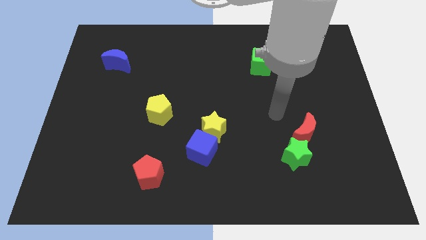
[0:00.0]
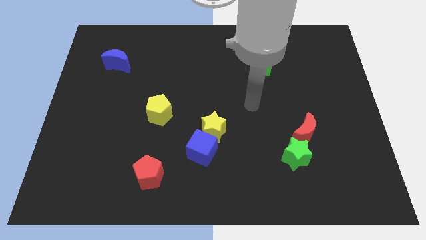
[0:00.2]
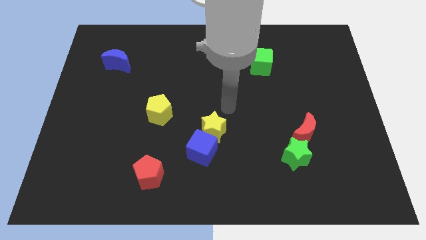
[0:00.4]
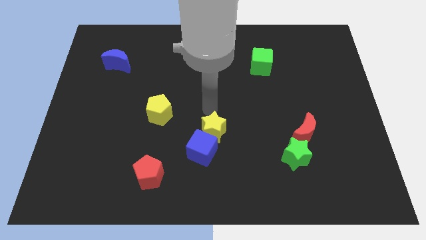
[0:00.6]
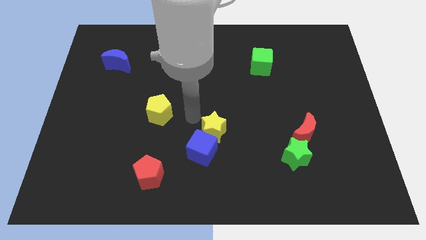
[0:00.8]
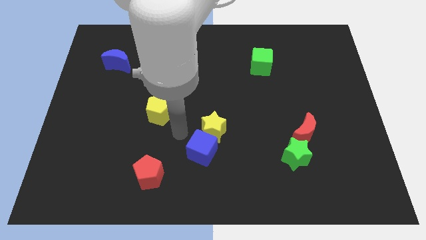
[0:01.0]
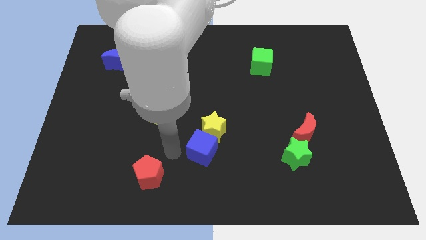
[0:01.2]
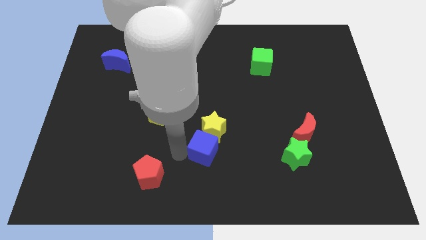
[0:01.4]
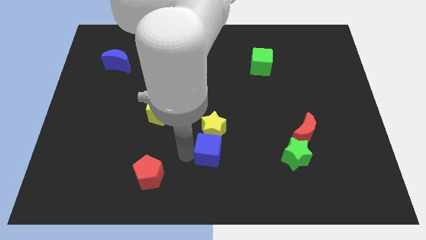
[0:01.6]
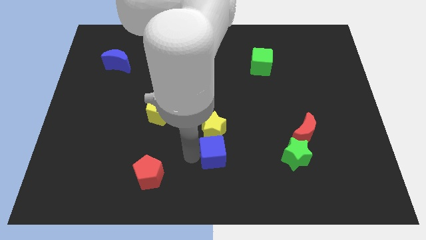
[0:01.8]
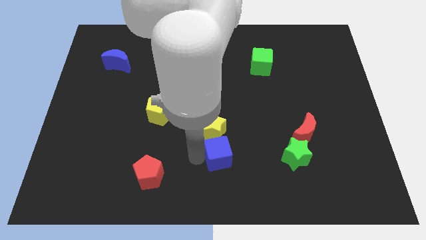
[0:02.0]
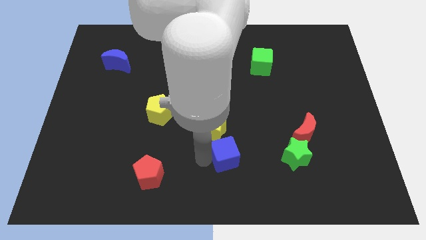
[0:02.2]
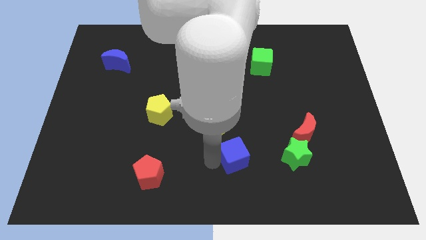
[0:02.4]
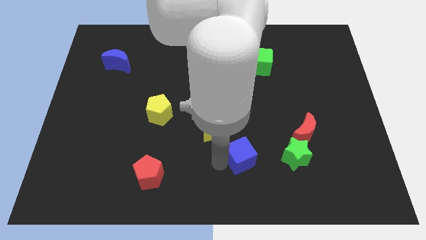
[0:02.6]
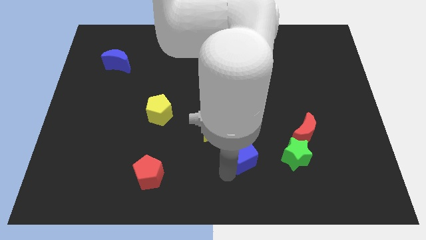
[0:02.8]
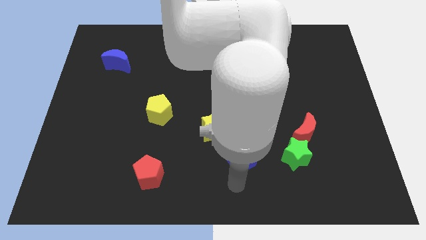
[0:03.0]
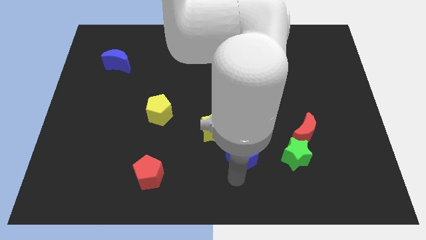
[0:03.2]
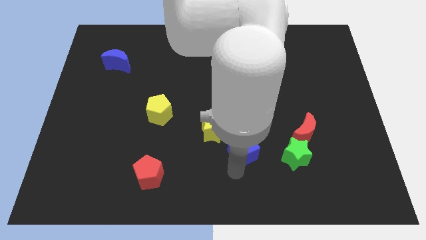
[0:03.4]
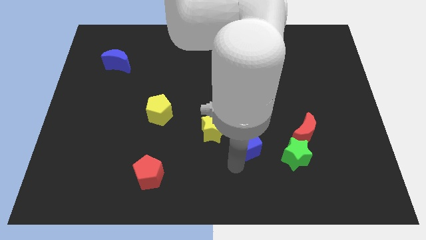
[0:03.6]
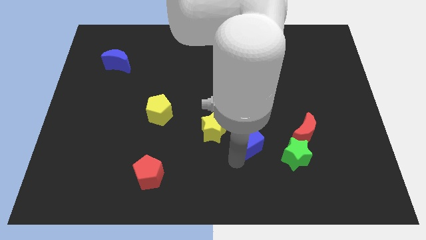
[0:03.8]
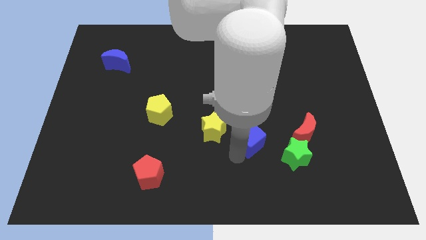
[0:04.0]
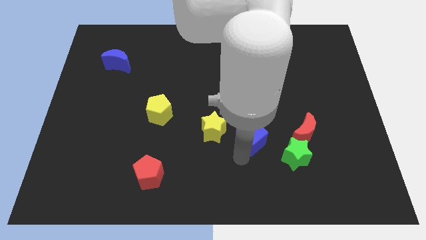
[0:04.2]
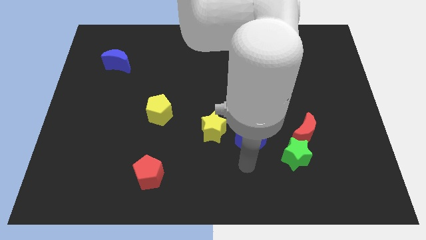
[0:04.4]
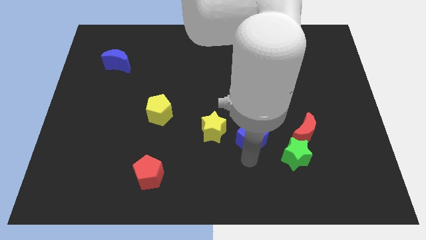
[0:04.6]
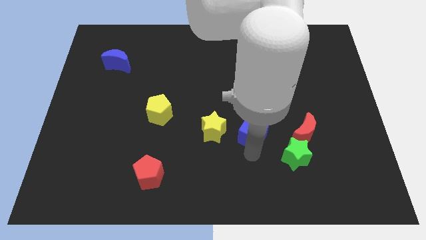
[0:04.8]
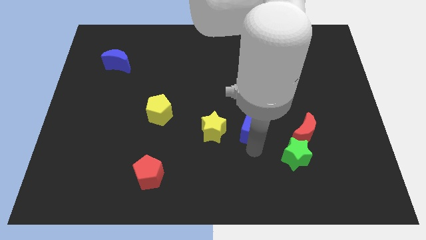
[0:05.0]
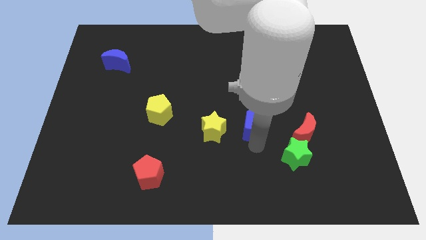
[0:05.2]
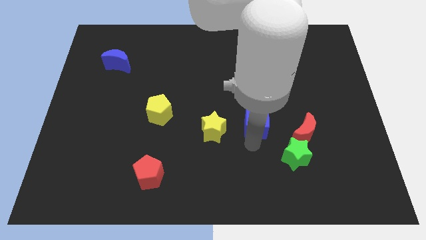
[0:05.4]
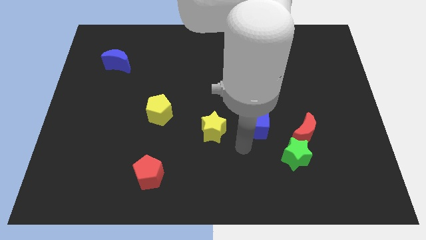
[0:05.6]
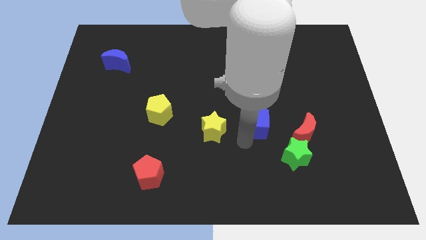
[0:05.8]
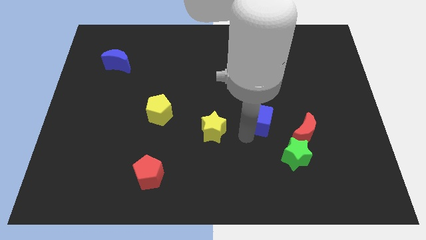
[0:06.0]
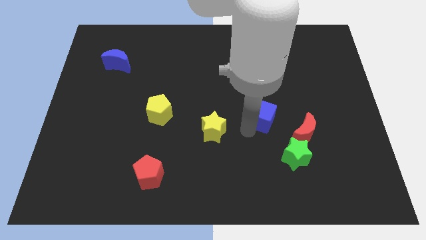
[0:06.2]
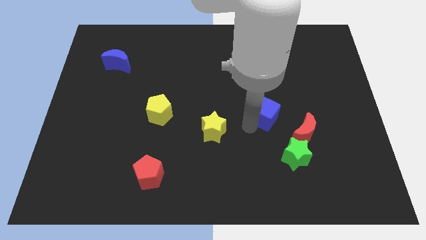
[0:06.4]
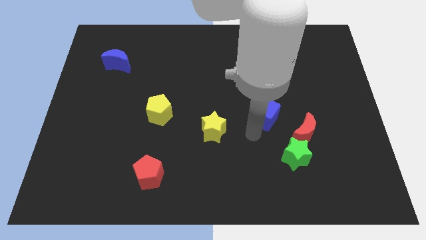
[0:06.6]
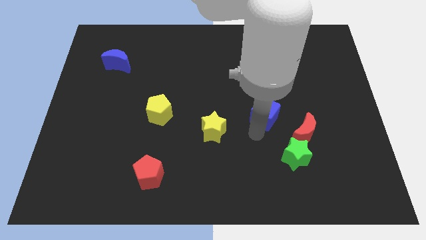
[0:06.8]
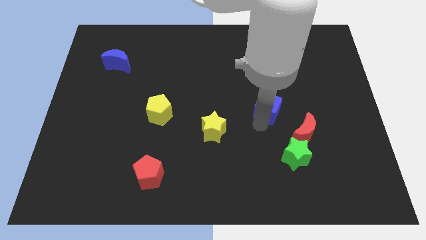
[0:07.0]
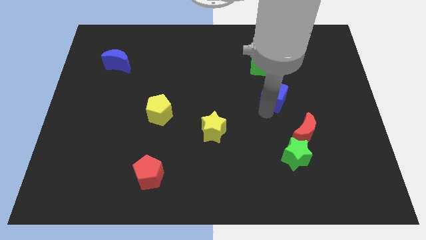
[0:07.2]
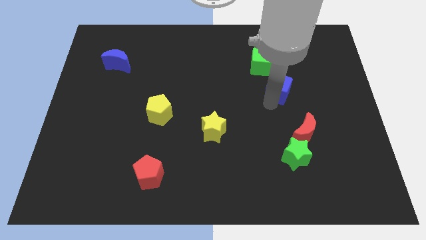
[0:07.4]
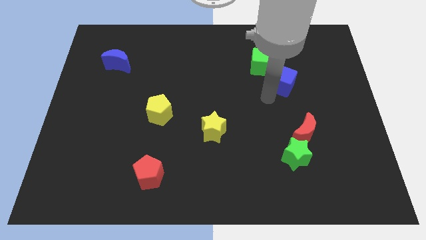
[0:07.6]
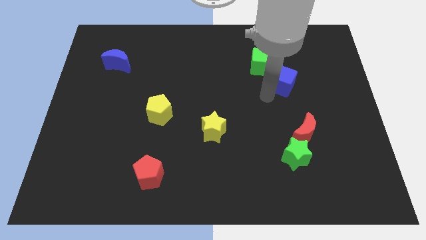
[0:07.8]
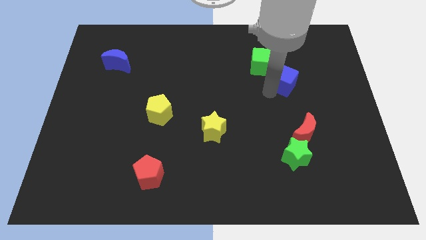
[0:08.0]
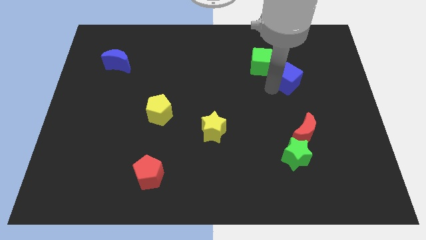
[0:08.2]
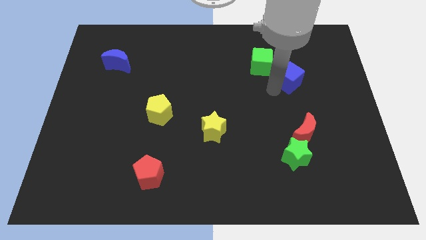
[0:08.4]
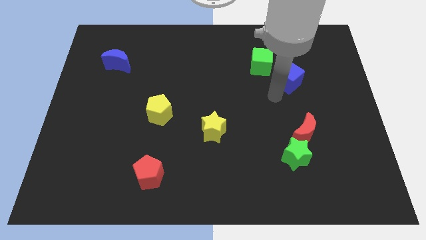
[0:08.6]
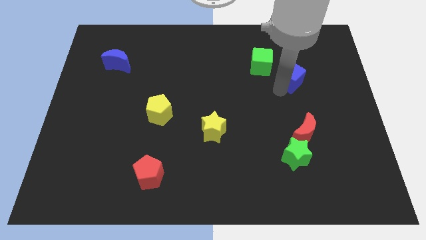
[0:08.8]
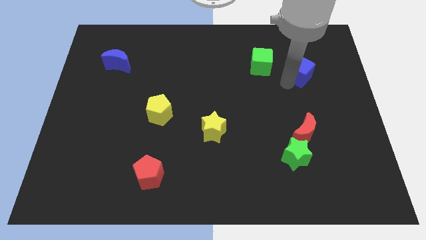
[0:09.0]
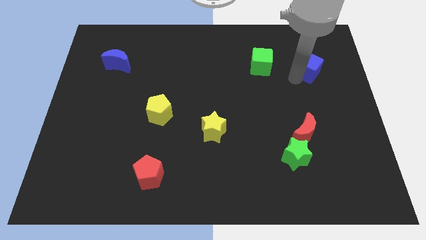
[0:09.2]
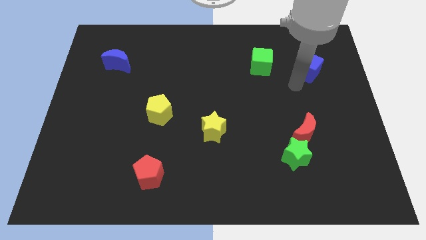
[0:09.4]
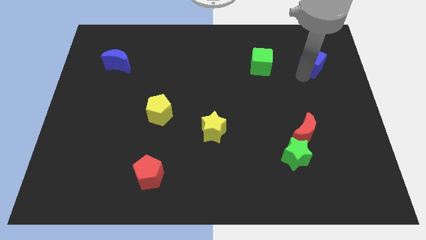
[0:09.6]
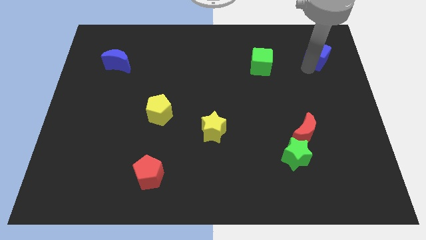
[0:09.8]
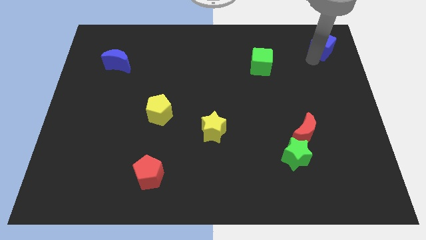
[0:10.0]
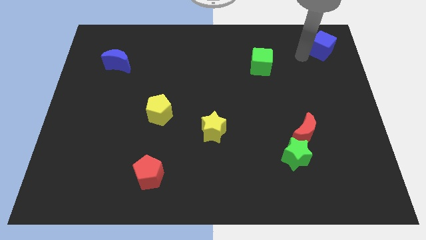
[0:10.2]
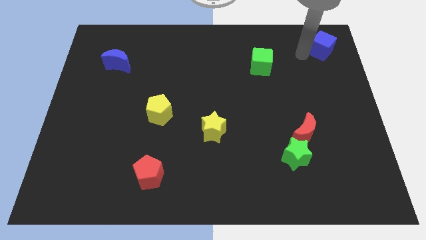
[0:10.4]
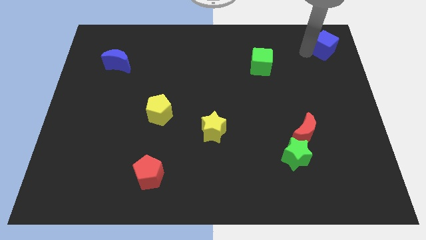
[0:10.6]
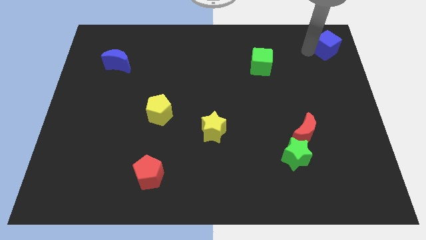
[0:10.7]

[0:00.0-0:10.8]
push the blue cube to the top right corner

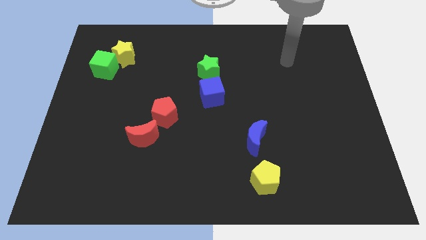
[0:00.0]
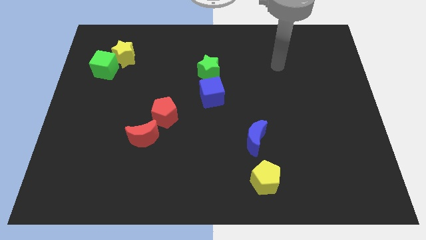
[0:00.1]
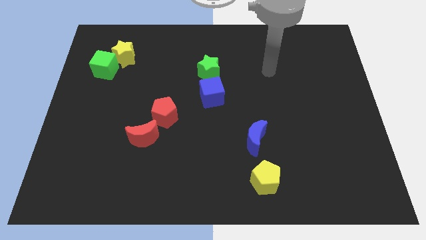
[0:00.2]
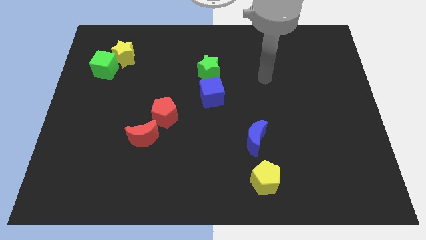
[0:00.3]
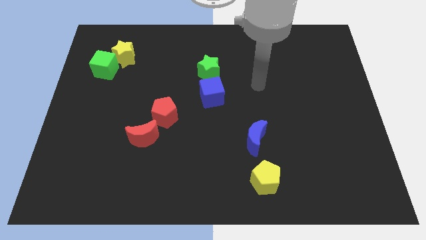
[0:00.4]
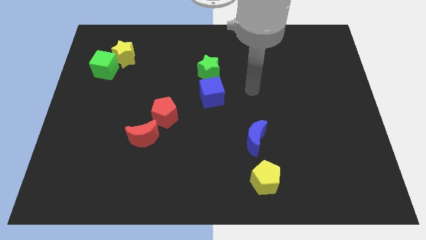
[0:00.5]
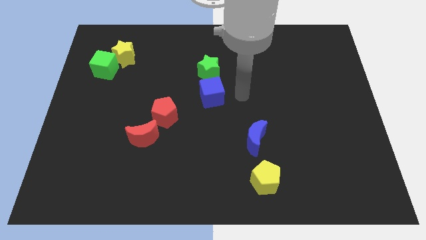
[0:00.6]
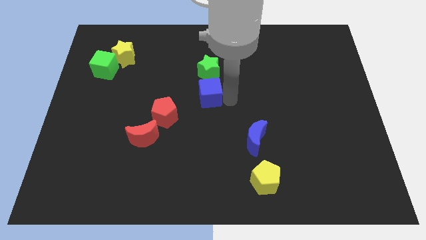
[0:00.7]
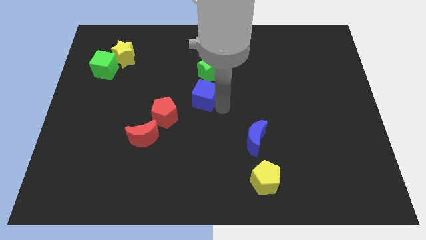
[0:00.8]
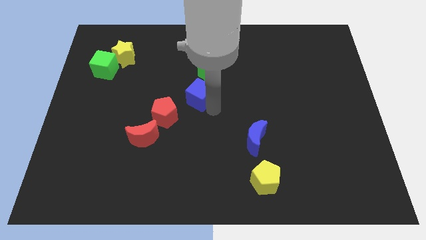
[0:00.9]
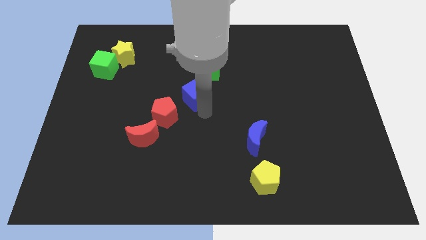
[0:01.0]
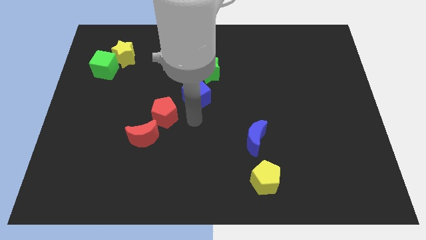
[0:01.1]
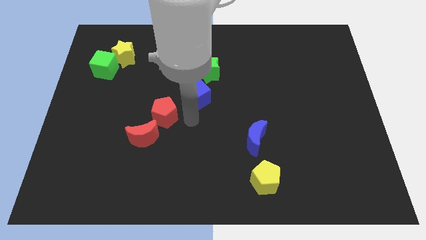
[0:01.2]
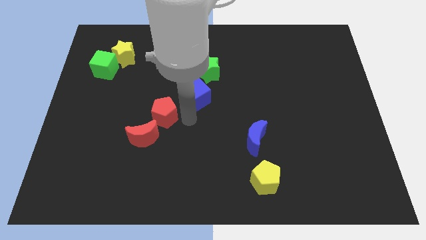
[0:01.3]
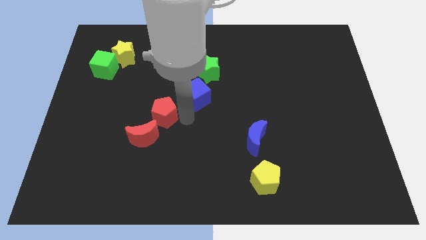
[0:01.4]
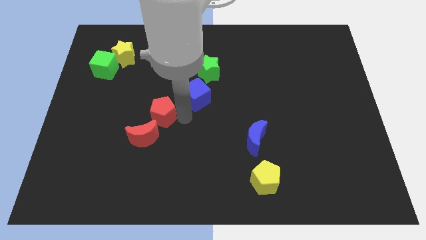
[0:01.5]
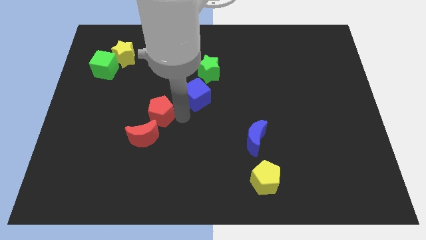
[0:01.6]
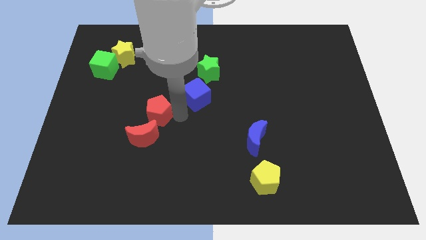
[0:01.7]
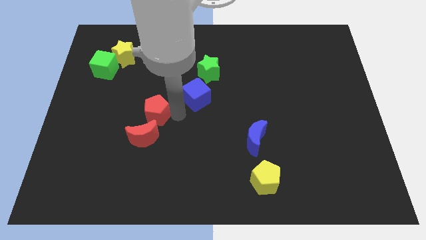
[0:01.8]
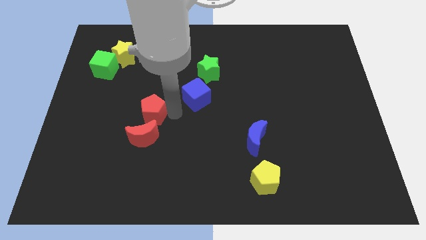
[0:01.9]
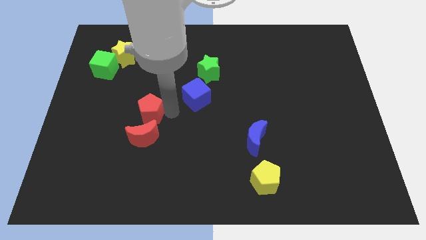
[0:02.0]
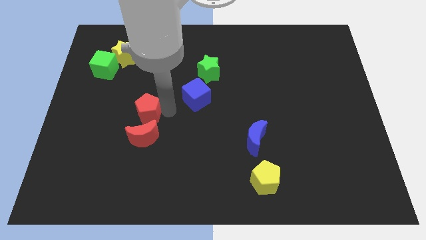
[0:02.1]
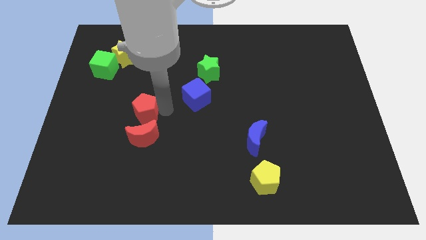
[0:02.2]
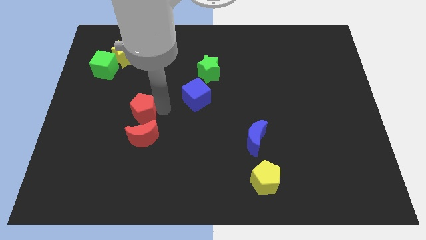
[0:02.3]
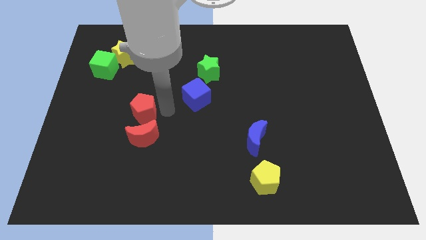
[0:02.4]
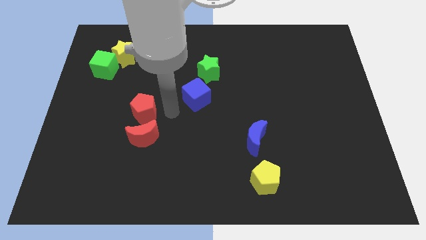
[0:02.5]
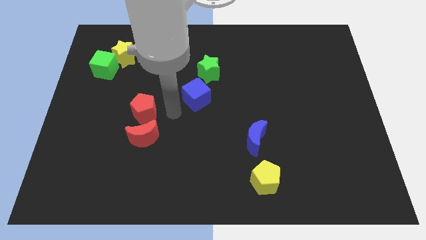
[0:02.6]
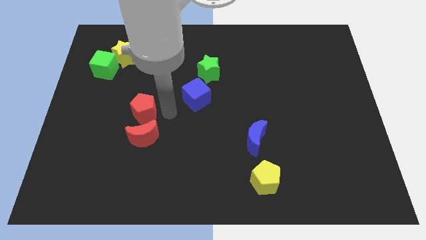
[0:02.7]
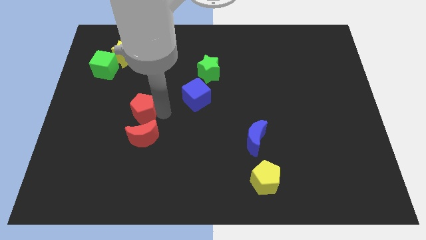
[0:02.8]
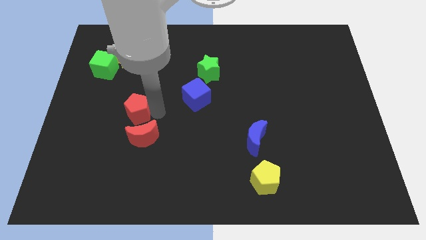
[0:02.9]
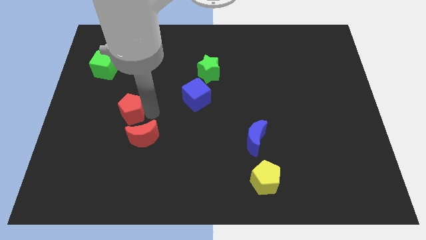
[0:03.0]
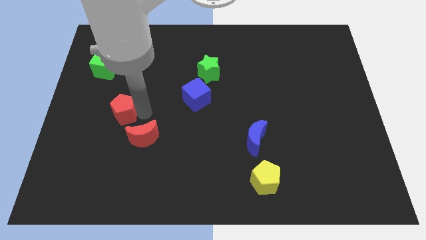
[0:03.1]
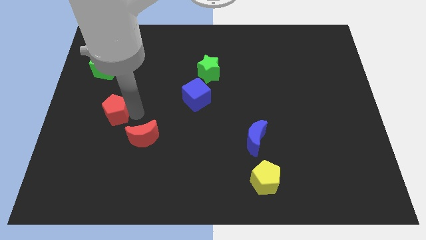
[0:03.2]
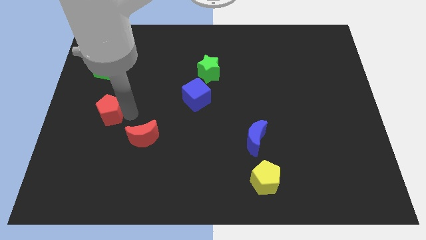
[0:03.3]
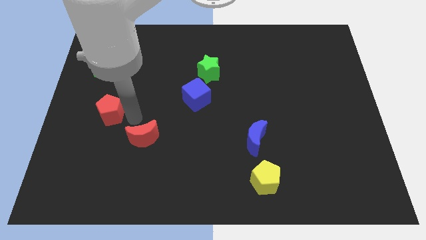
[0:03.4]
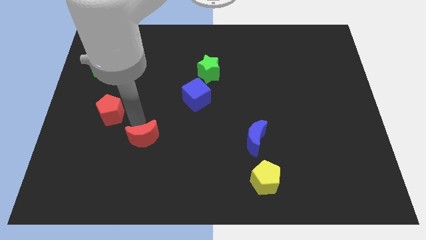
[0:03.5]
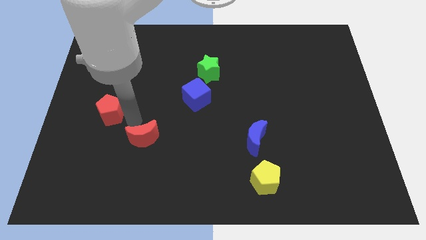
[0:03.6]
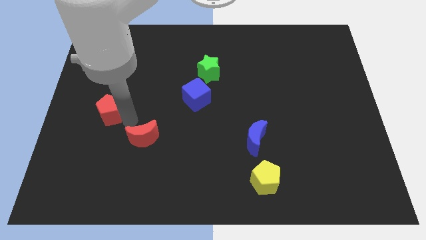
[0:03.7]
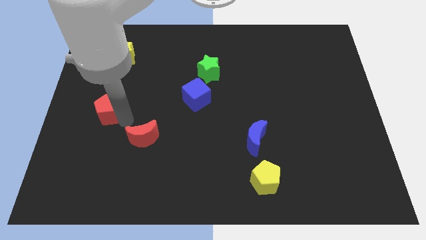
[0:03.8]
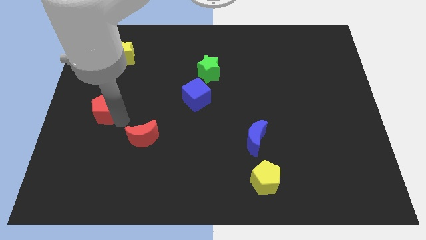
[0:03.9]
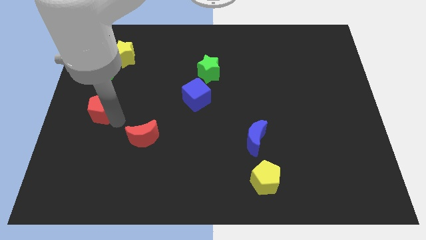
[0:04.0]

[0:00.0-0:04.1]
put the red pentagon to the left side
